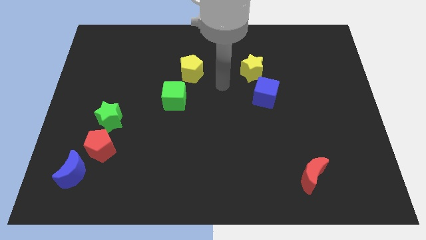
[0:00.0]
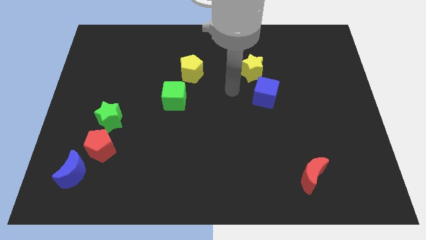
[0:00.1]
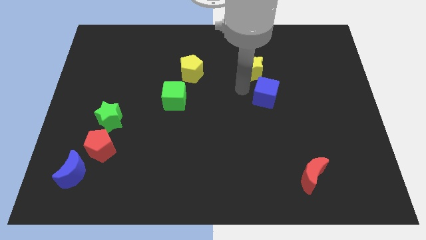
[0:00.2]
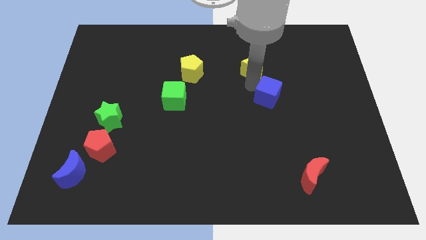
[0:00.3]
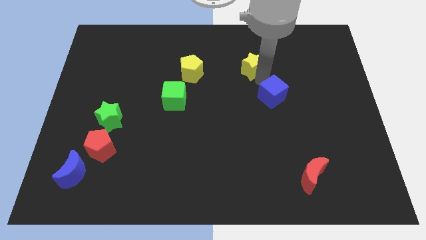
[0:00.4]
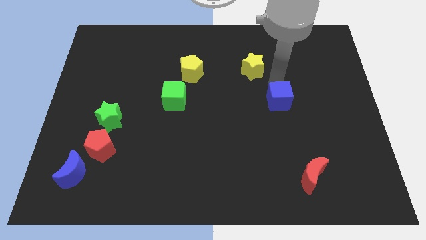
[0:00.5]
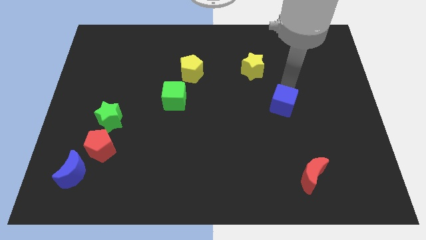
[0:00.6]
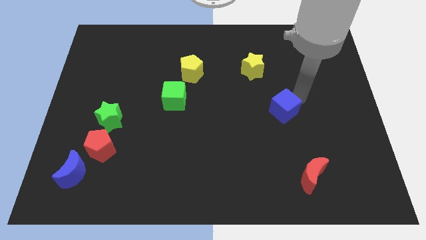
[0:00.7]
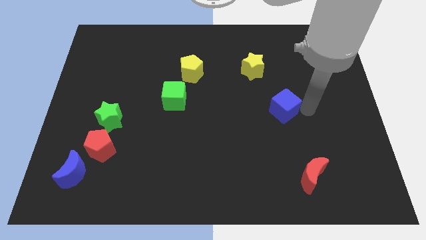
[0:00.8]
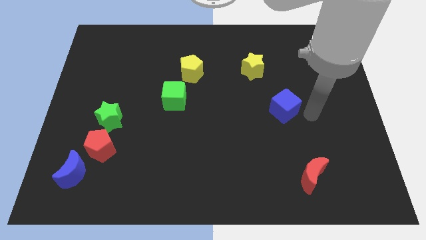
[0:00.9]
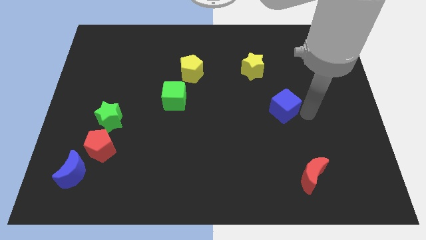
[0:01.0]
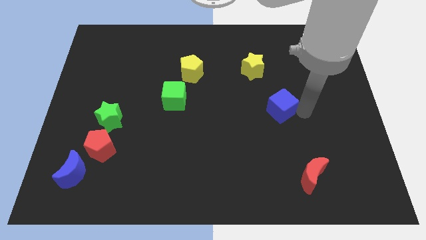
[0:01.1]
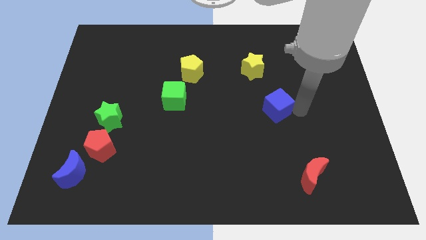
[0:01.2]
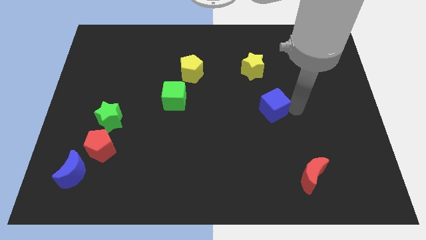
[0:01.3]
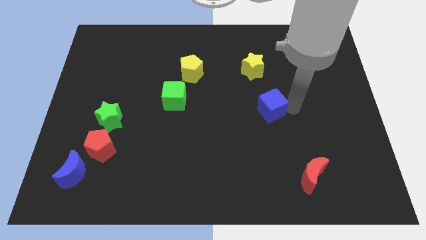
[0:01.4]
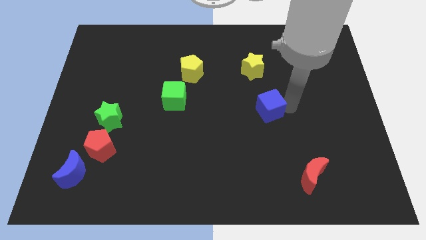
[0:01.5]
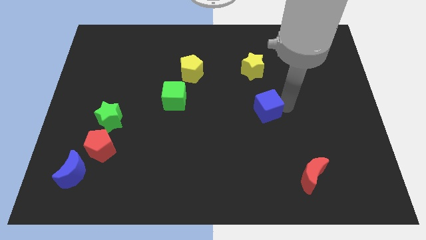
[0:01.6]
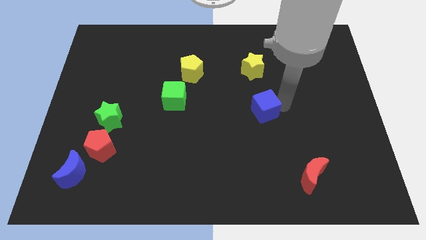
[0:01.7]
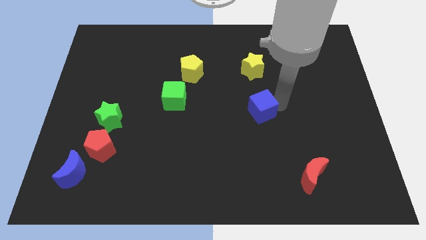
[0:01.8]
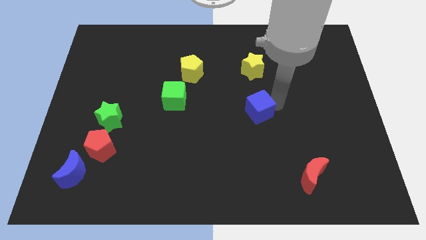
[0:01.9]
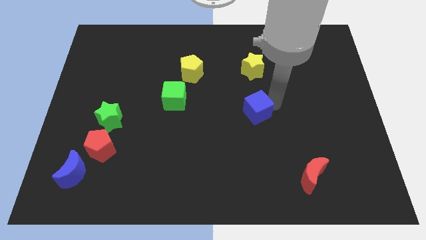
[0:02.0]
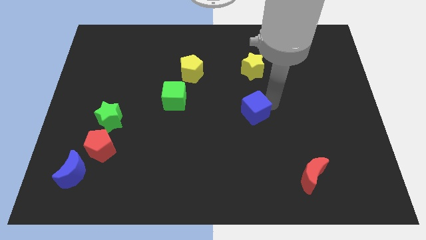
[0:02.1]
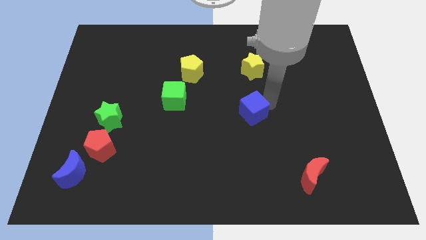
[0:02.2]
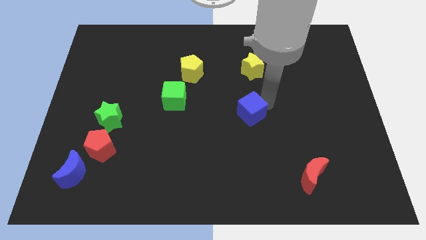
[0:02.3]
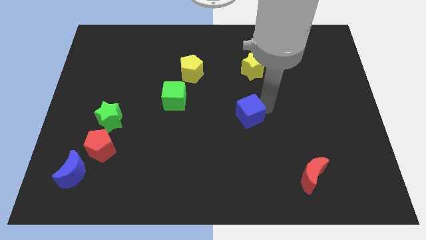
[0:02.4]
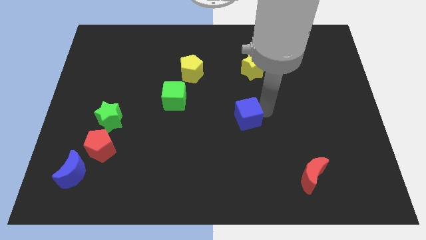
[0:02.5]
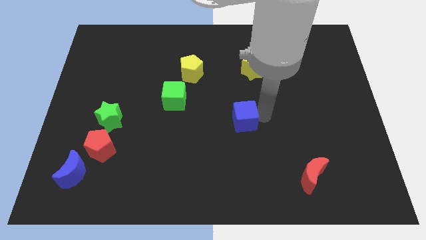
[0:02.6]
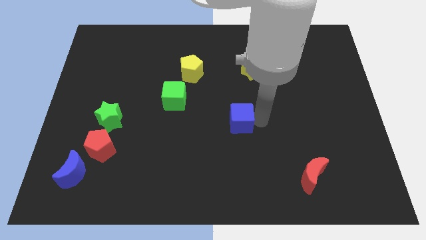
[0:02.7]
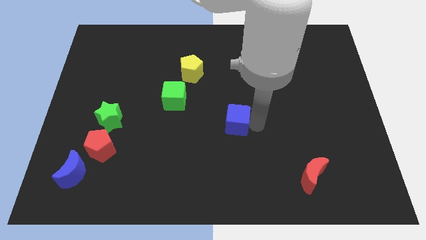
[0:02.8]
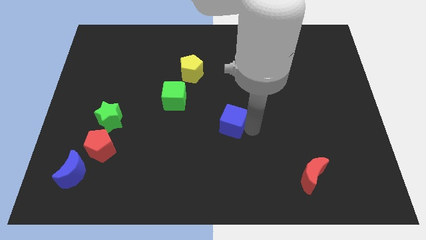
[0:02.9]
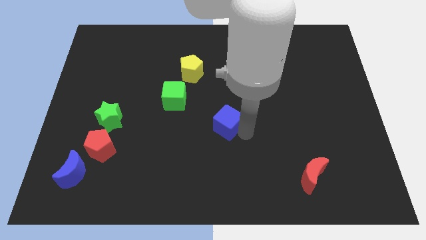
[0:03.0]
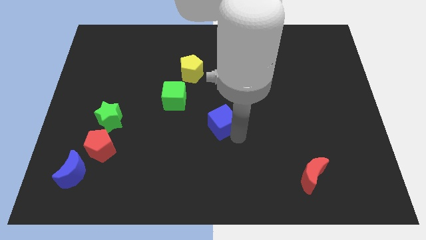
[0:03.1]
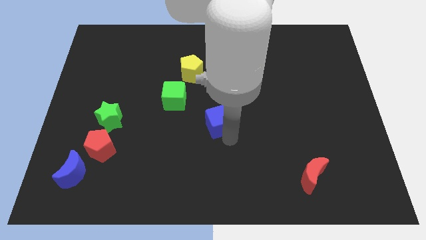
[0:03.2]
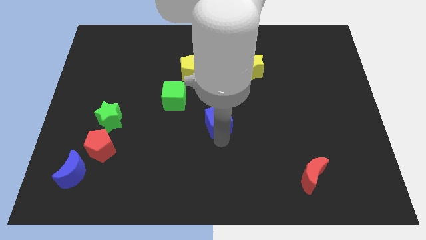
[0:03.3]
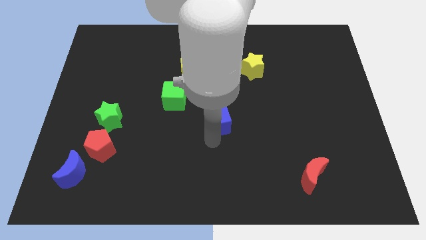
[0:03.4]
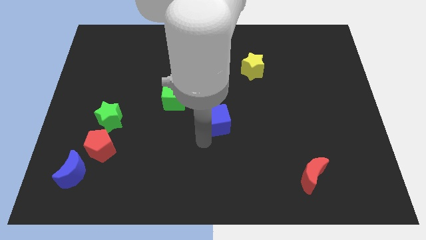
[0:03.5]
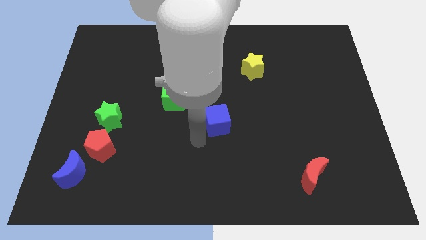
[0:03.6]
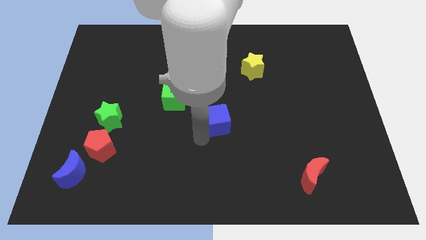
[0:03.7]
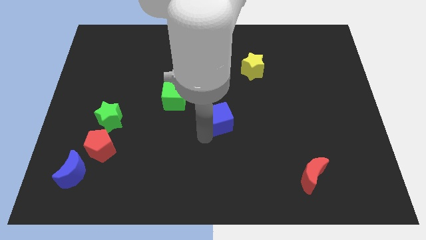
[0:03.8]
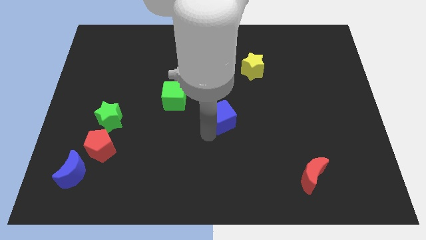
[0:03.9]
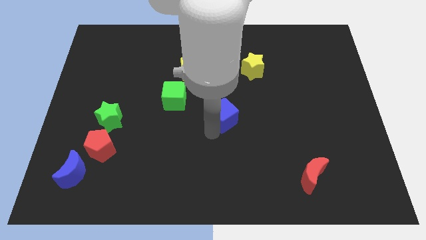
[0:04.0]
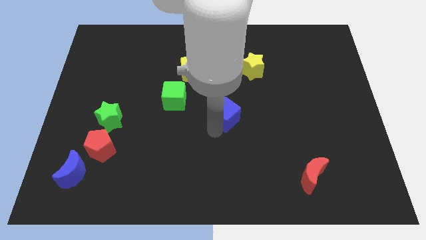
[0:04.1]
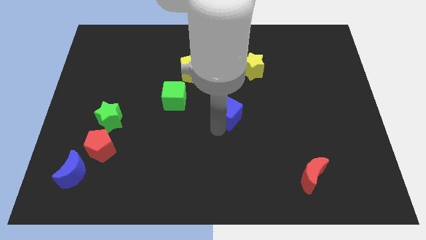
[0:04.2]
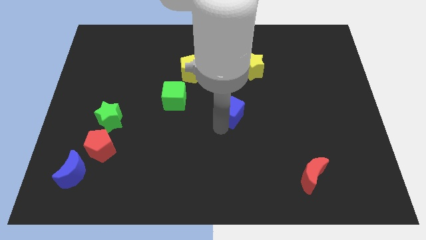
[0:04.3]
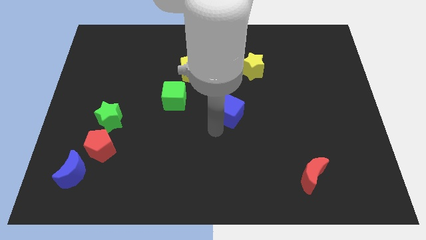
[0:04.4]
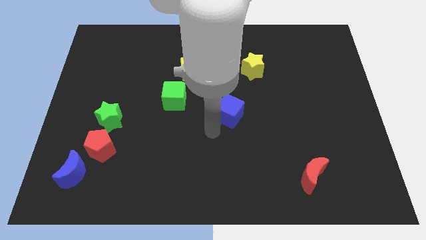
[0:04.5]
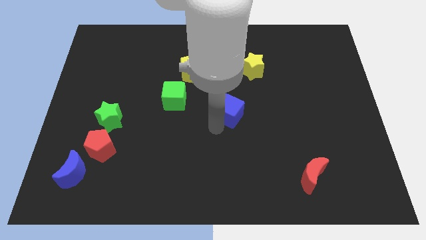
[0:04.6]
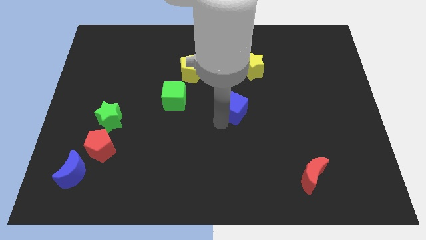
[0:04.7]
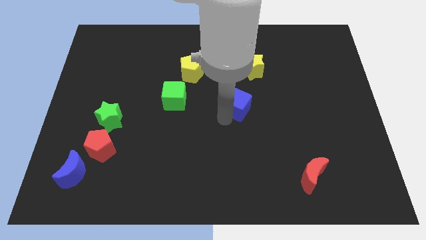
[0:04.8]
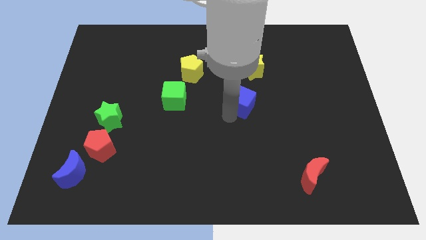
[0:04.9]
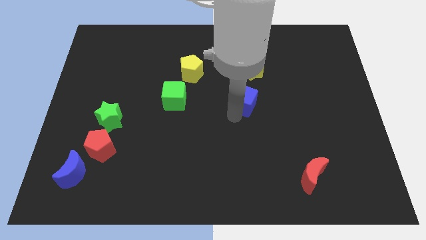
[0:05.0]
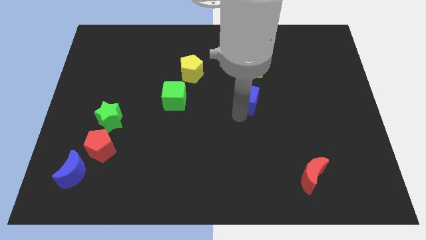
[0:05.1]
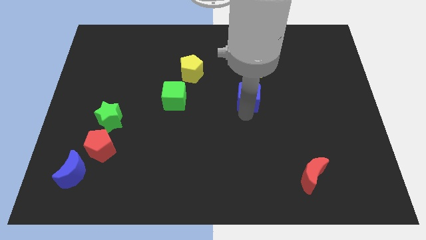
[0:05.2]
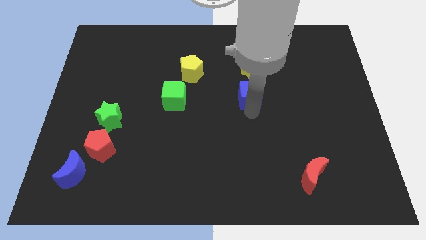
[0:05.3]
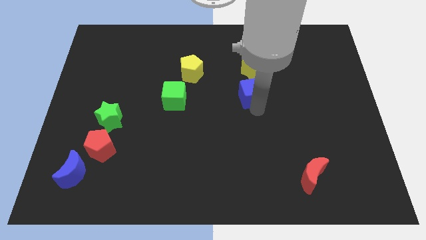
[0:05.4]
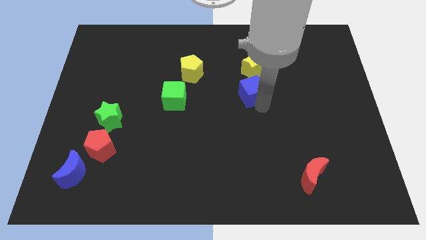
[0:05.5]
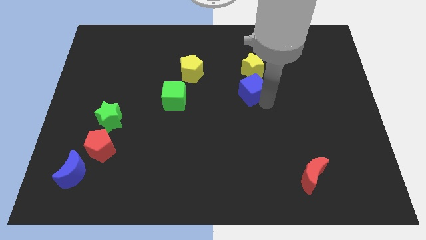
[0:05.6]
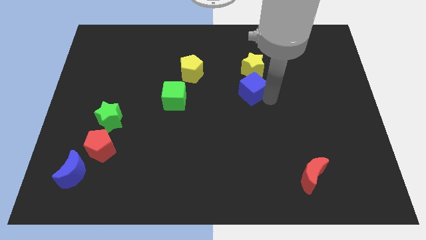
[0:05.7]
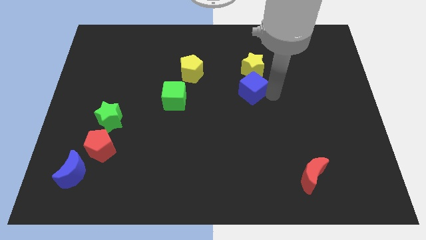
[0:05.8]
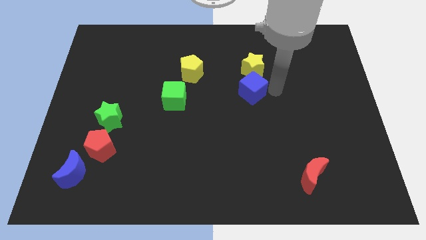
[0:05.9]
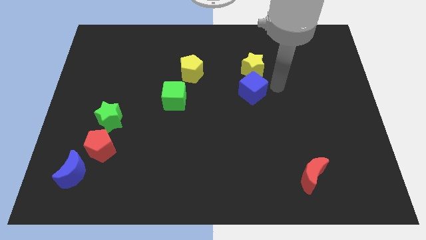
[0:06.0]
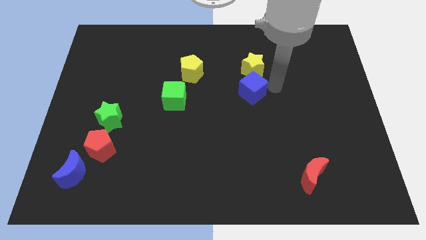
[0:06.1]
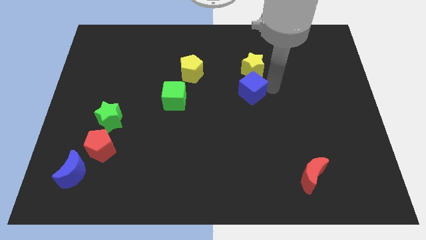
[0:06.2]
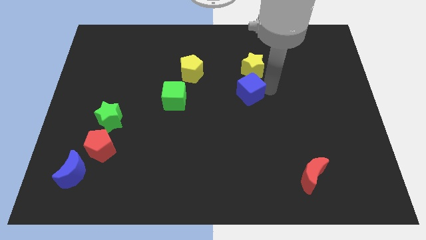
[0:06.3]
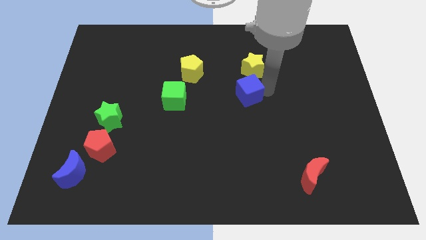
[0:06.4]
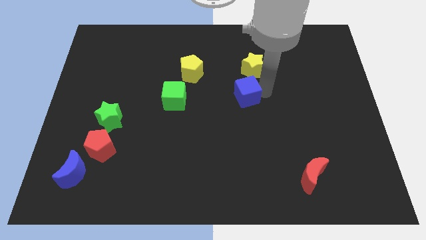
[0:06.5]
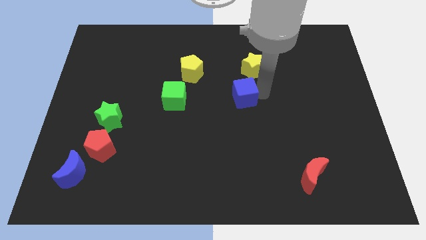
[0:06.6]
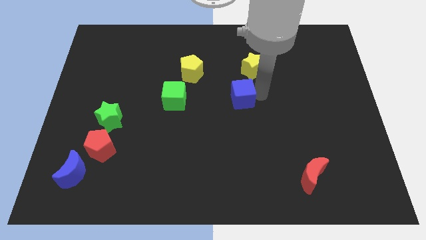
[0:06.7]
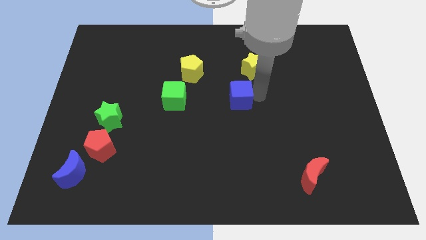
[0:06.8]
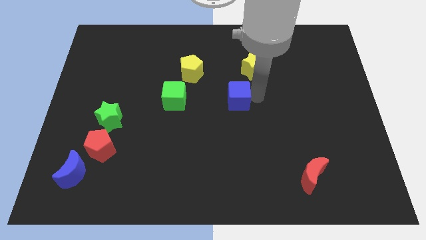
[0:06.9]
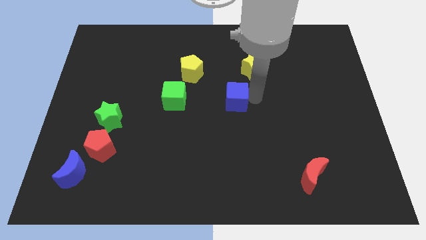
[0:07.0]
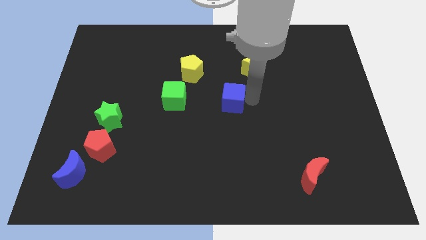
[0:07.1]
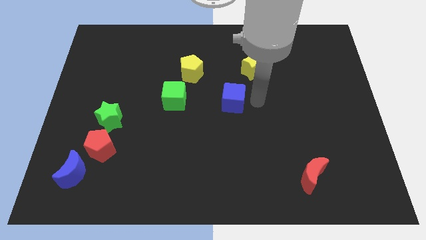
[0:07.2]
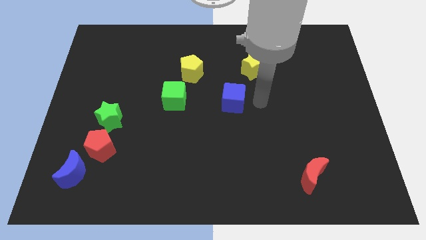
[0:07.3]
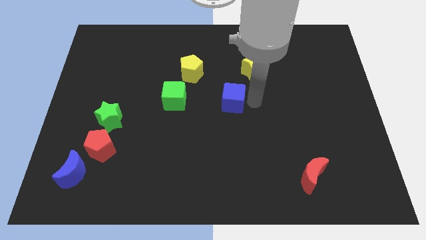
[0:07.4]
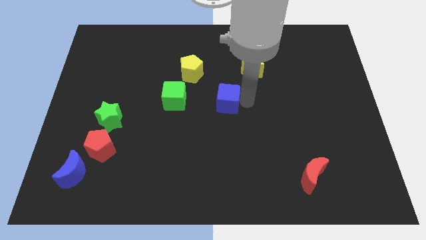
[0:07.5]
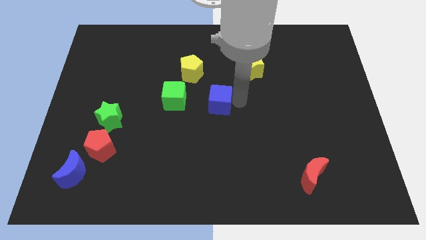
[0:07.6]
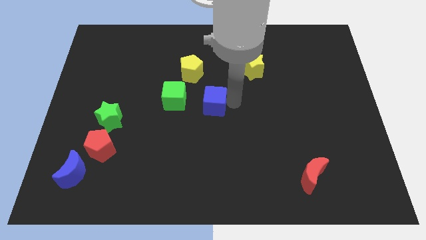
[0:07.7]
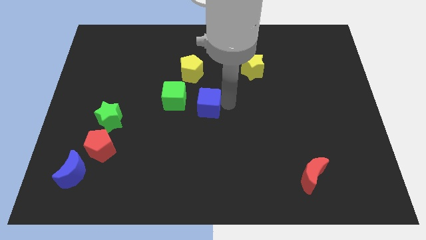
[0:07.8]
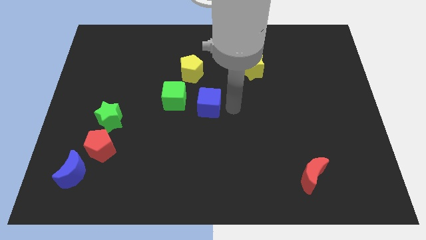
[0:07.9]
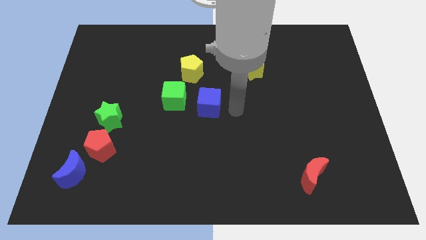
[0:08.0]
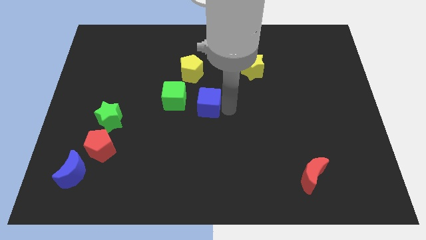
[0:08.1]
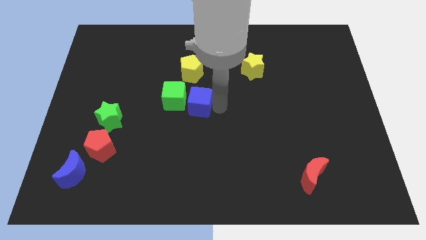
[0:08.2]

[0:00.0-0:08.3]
push the blue cube towards the green cube
